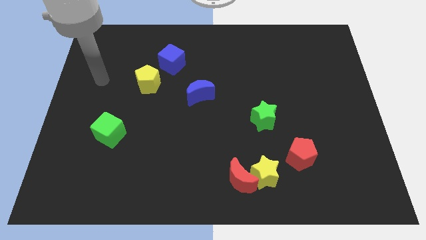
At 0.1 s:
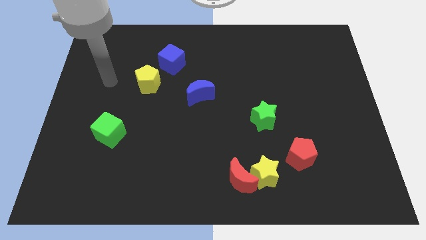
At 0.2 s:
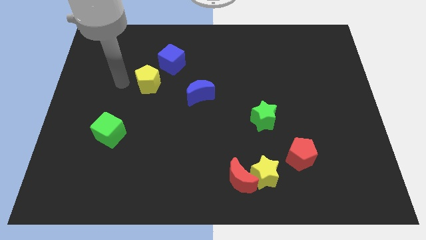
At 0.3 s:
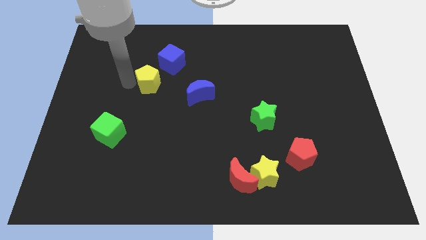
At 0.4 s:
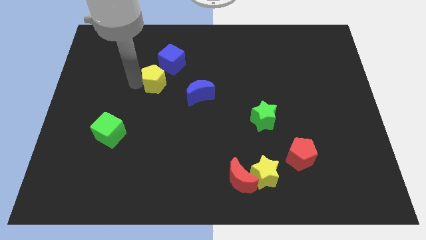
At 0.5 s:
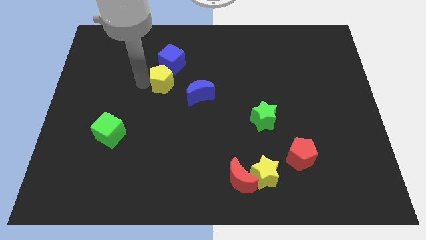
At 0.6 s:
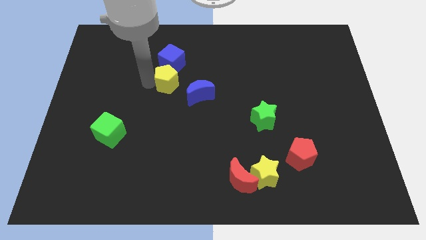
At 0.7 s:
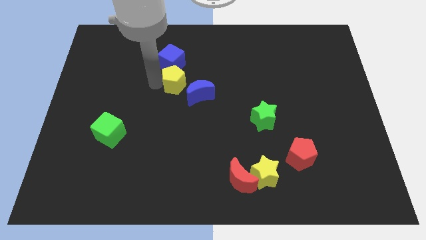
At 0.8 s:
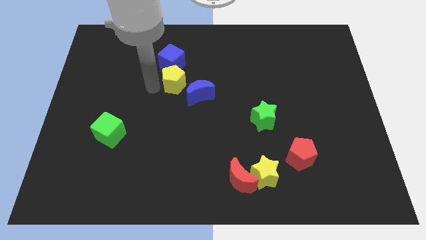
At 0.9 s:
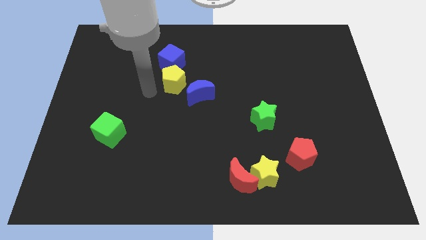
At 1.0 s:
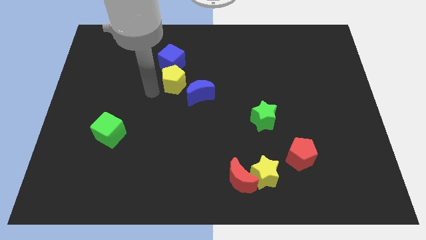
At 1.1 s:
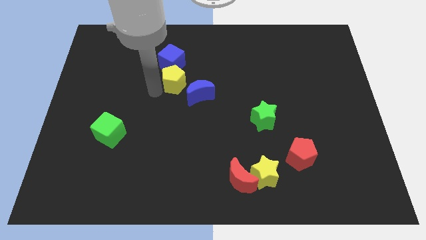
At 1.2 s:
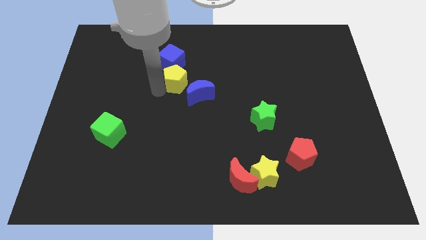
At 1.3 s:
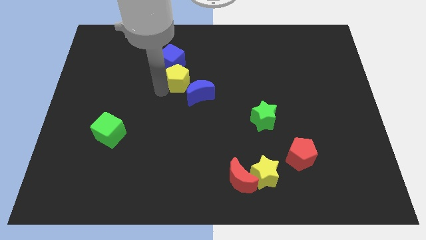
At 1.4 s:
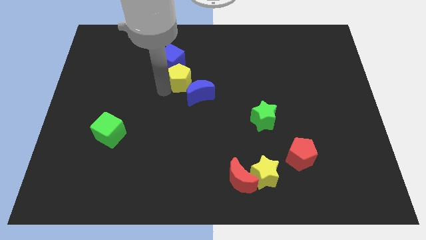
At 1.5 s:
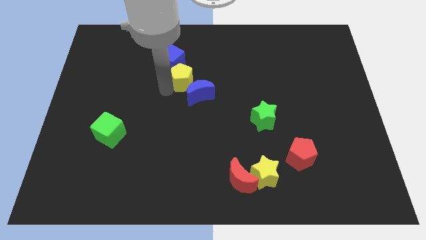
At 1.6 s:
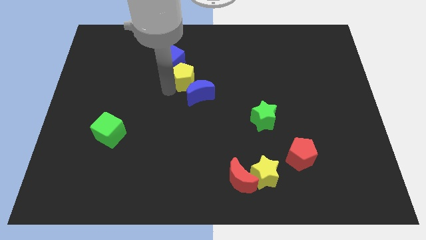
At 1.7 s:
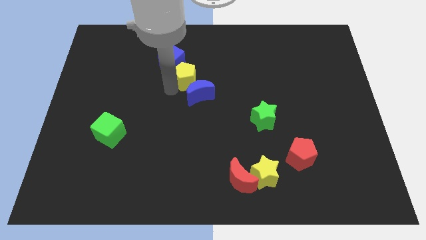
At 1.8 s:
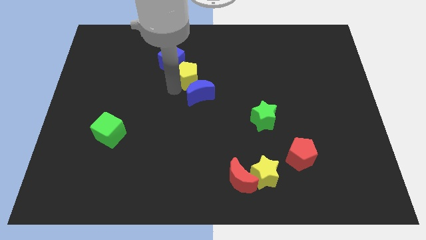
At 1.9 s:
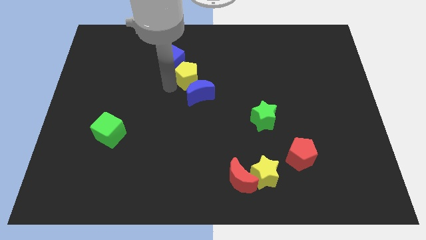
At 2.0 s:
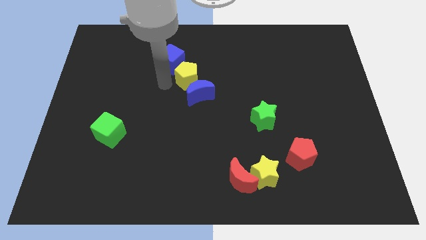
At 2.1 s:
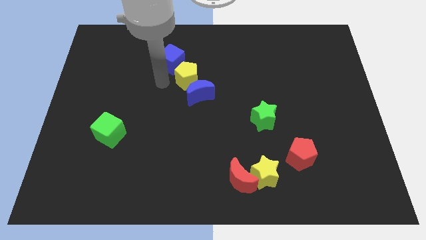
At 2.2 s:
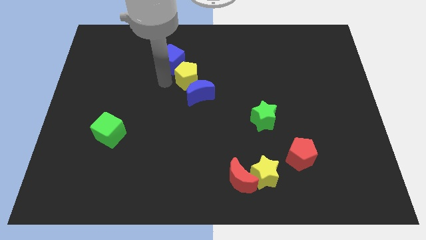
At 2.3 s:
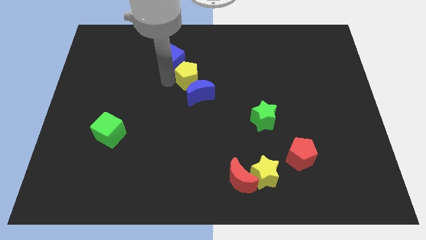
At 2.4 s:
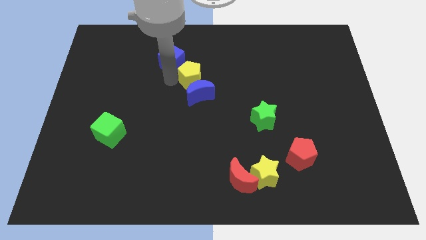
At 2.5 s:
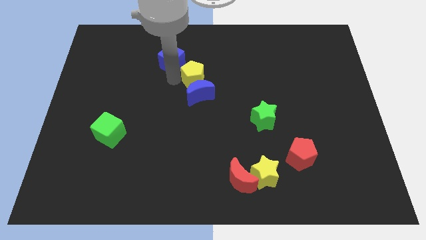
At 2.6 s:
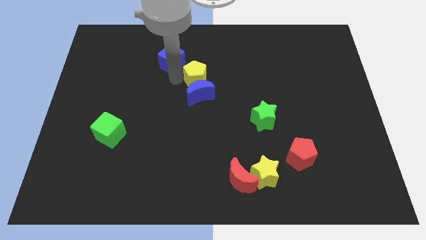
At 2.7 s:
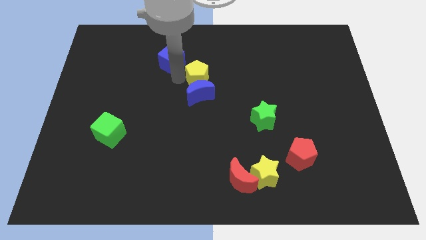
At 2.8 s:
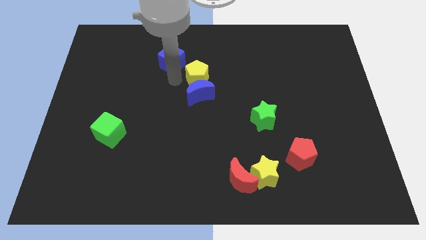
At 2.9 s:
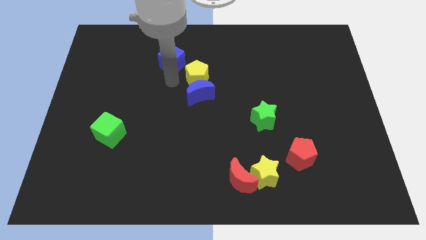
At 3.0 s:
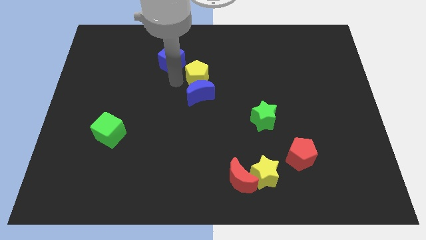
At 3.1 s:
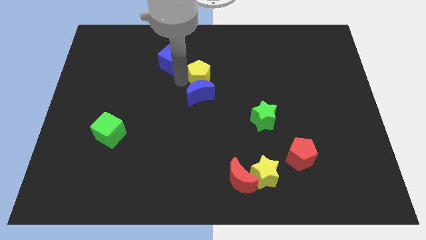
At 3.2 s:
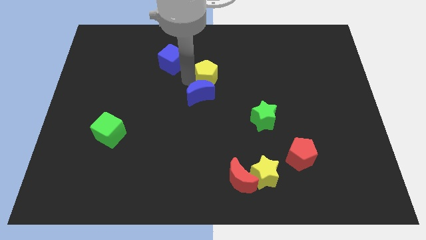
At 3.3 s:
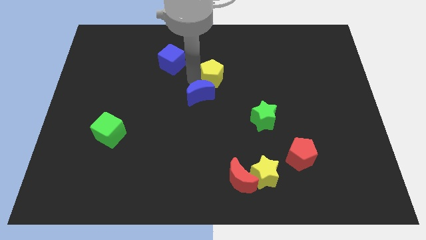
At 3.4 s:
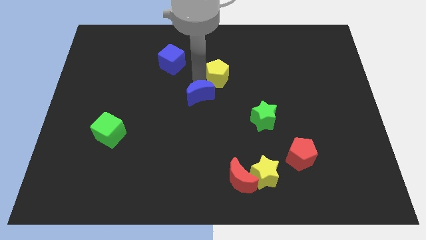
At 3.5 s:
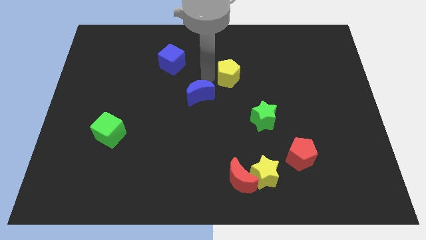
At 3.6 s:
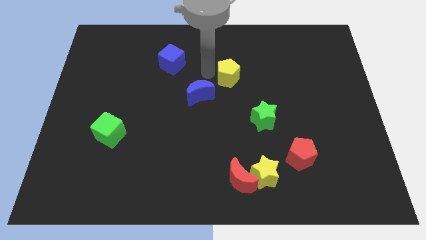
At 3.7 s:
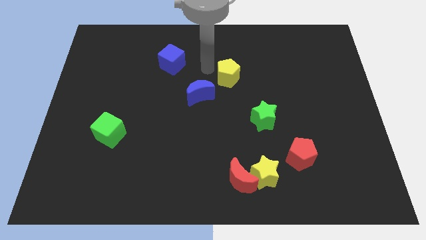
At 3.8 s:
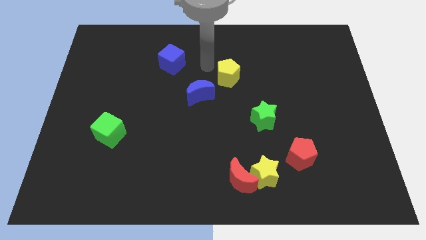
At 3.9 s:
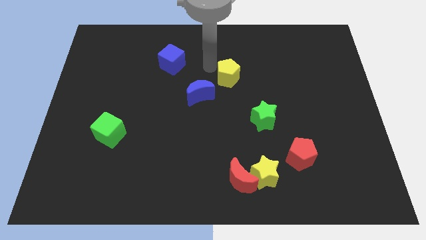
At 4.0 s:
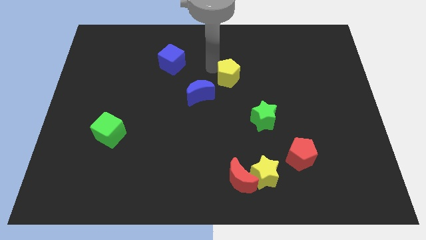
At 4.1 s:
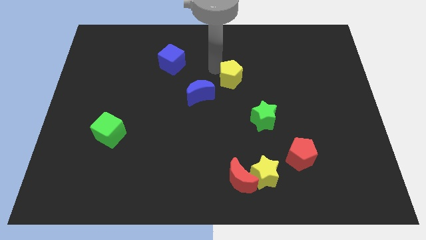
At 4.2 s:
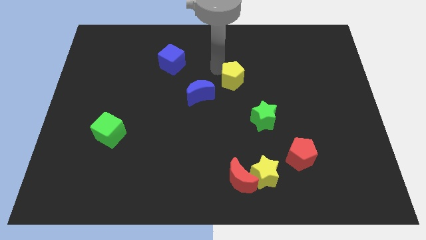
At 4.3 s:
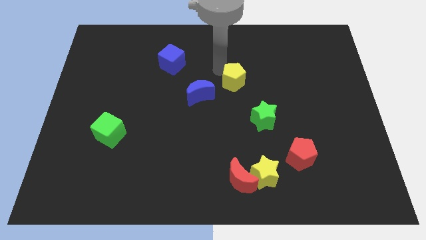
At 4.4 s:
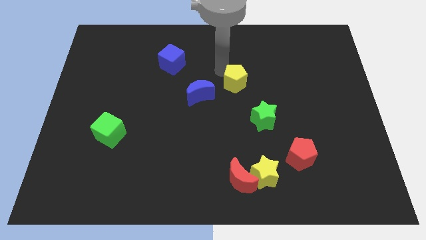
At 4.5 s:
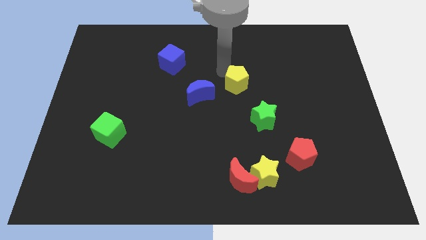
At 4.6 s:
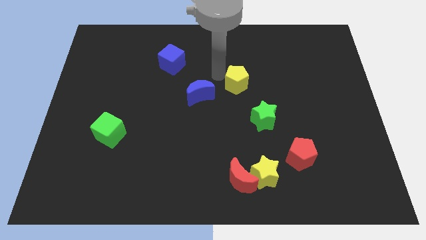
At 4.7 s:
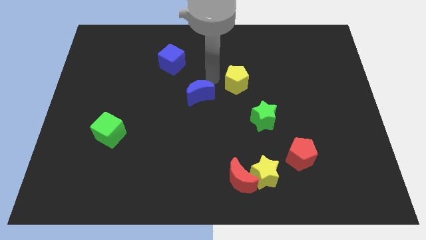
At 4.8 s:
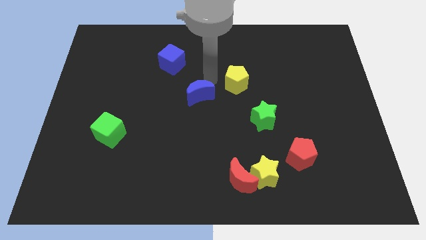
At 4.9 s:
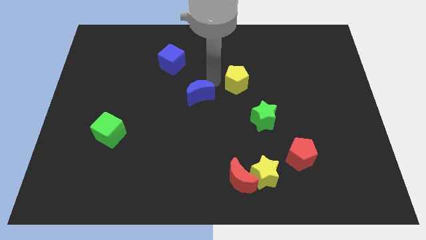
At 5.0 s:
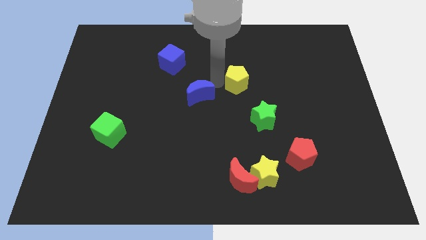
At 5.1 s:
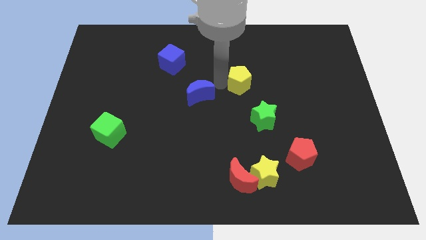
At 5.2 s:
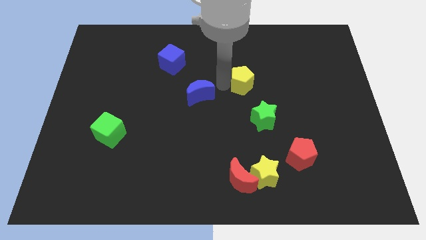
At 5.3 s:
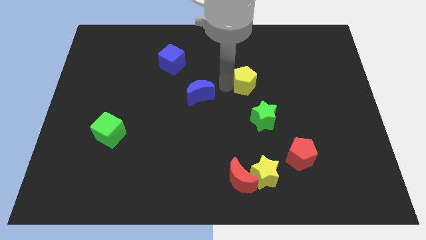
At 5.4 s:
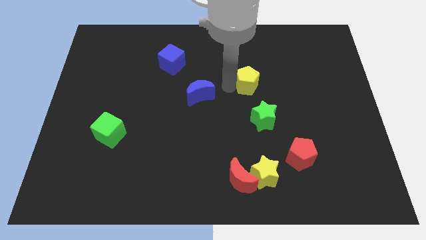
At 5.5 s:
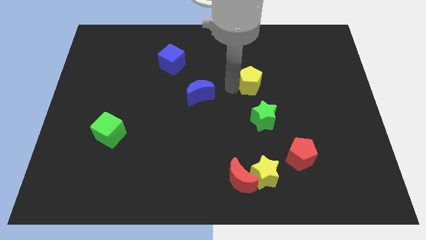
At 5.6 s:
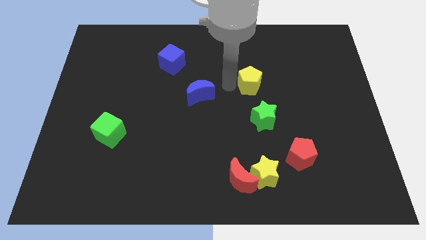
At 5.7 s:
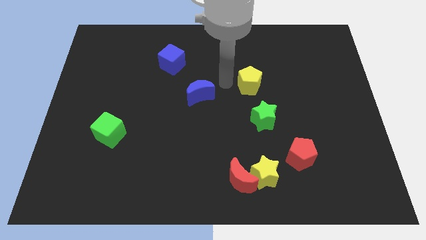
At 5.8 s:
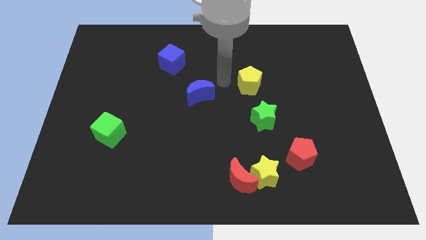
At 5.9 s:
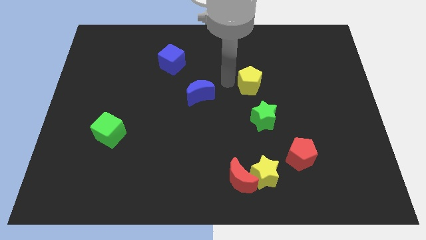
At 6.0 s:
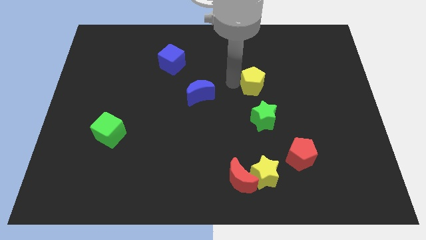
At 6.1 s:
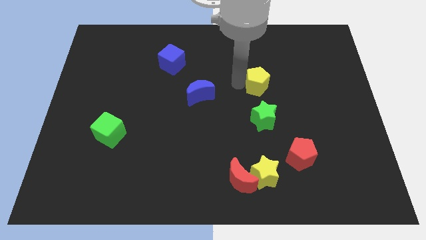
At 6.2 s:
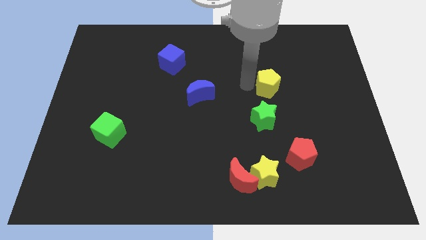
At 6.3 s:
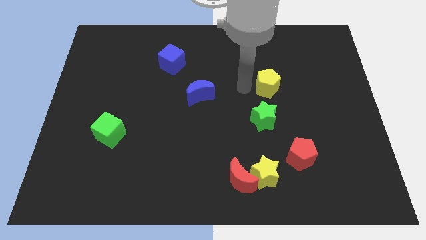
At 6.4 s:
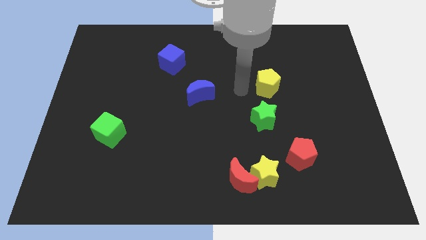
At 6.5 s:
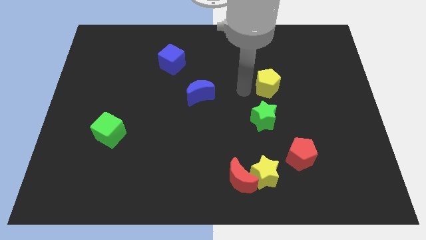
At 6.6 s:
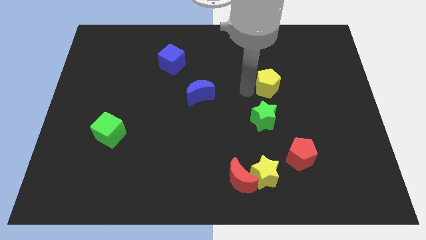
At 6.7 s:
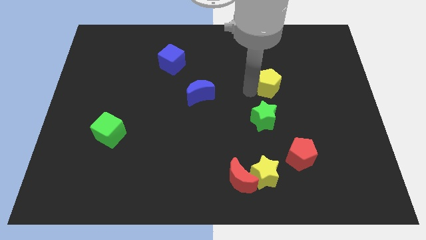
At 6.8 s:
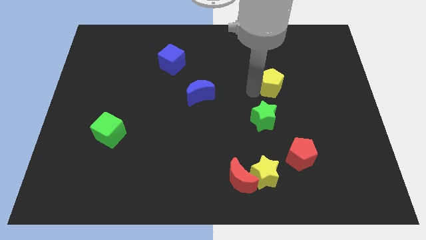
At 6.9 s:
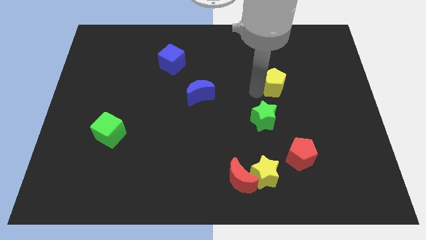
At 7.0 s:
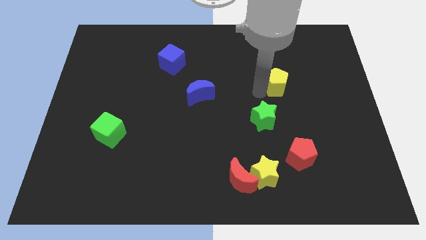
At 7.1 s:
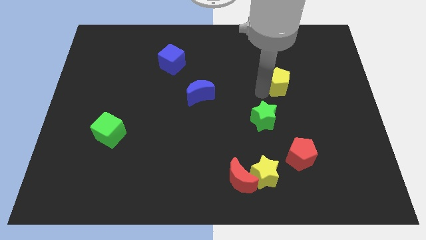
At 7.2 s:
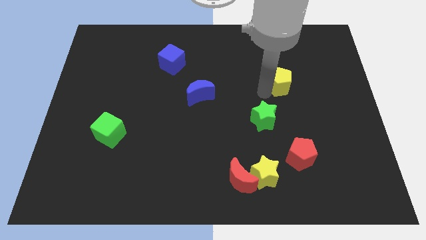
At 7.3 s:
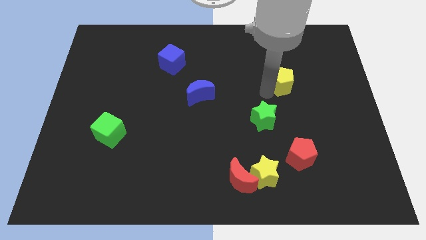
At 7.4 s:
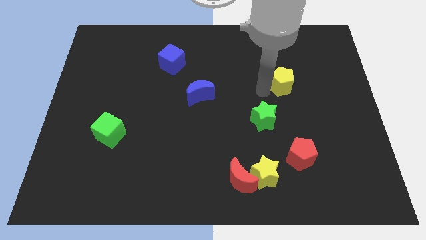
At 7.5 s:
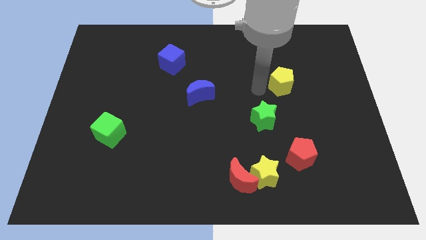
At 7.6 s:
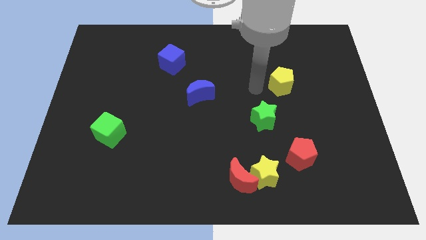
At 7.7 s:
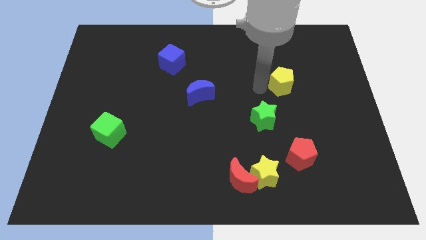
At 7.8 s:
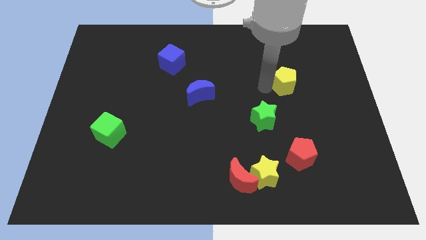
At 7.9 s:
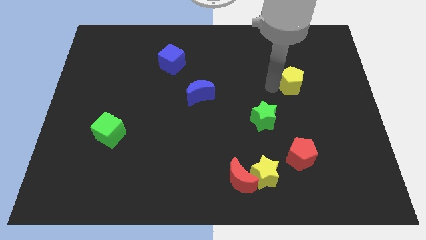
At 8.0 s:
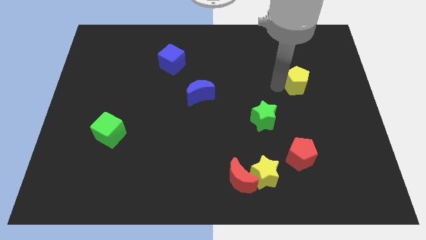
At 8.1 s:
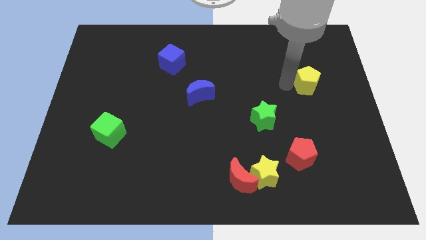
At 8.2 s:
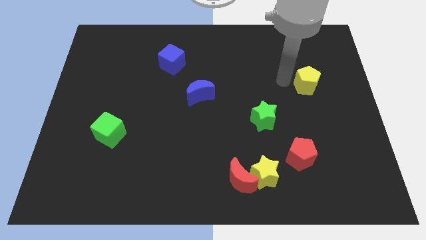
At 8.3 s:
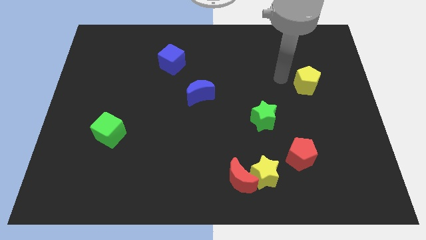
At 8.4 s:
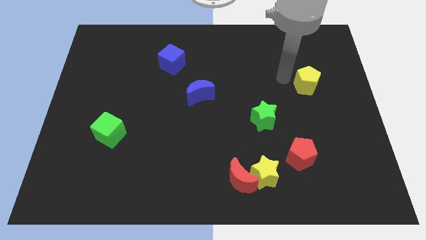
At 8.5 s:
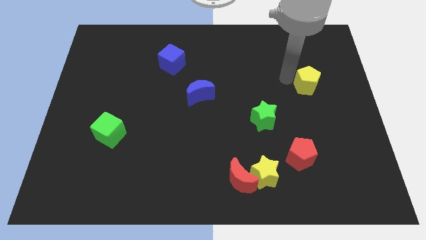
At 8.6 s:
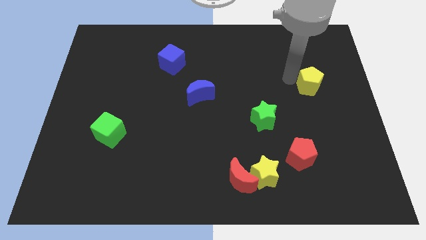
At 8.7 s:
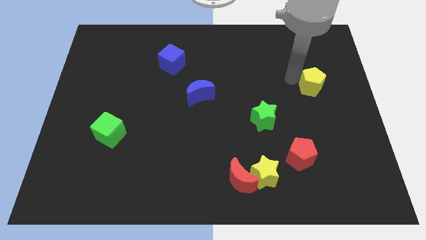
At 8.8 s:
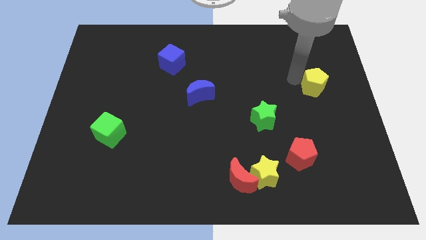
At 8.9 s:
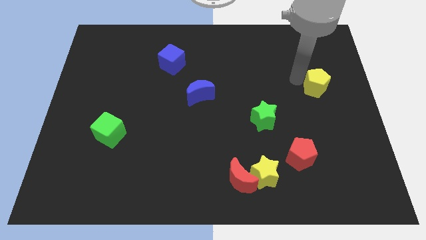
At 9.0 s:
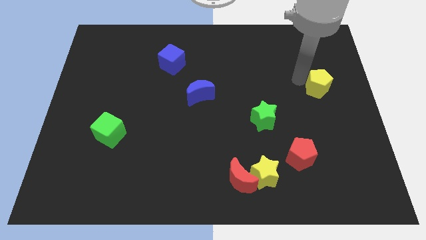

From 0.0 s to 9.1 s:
push the yellow pentagon to the center right
